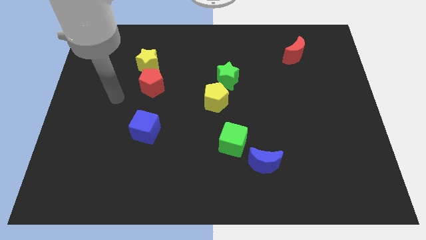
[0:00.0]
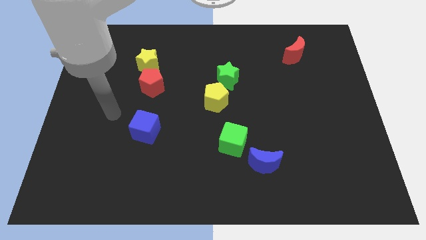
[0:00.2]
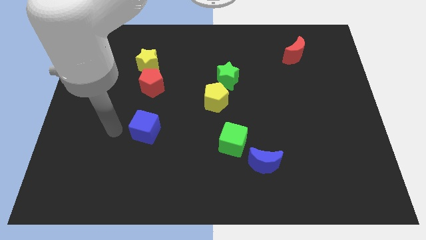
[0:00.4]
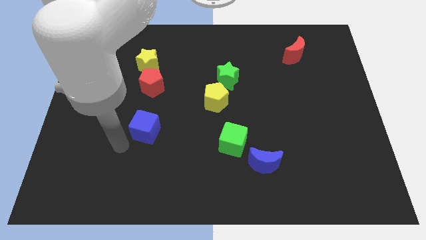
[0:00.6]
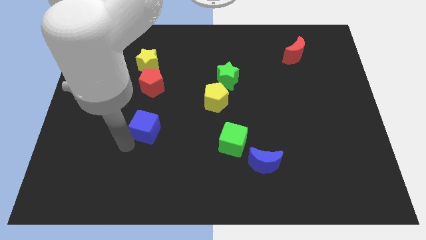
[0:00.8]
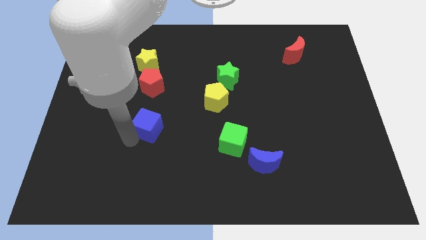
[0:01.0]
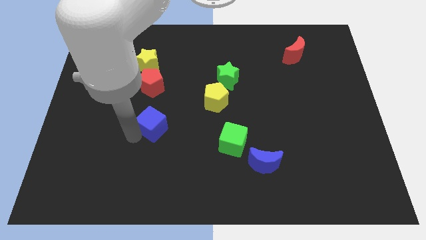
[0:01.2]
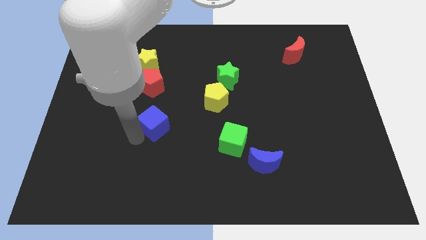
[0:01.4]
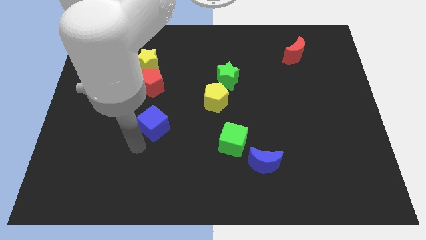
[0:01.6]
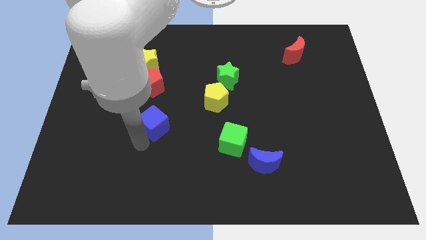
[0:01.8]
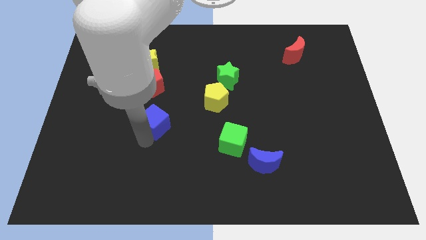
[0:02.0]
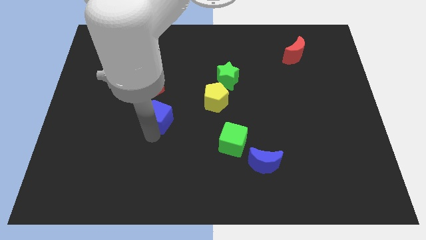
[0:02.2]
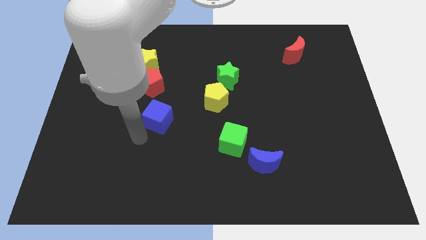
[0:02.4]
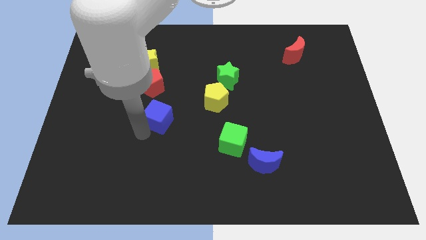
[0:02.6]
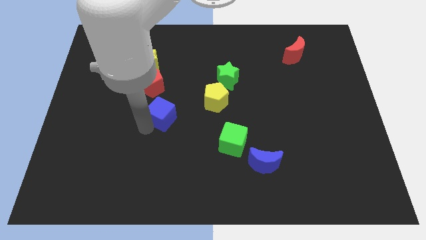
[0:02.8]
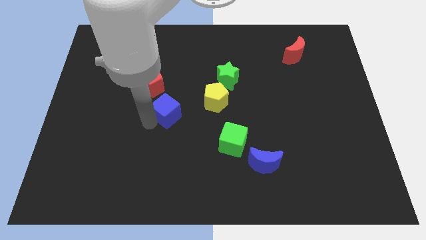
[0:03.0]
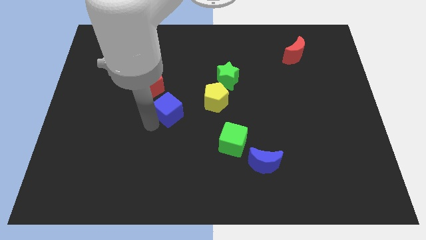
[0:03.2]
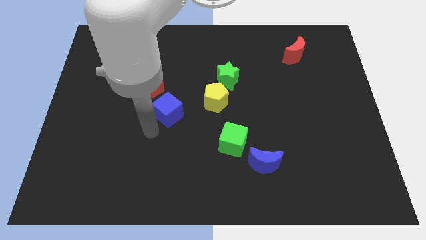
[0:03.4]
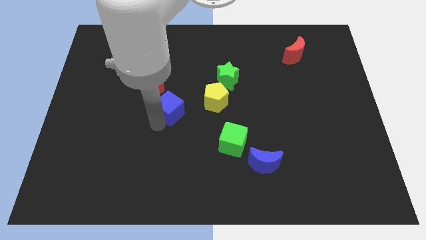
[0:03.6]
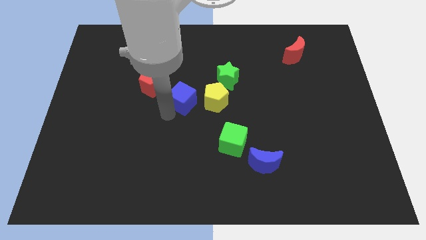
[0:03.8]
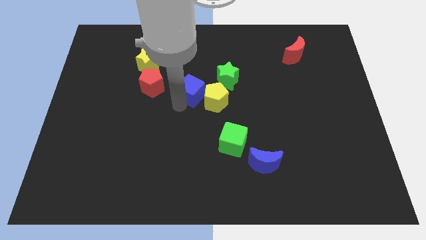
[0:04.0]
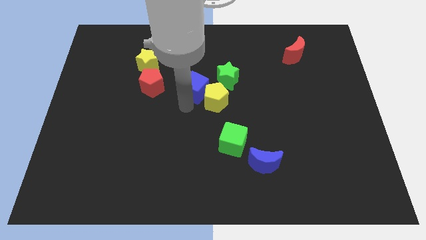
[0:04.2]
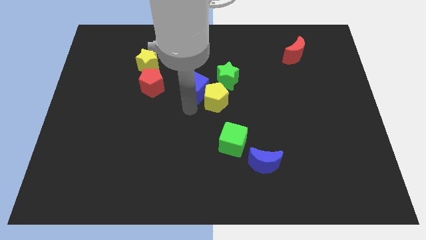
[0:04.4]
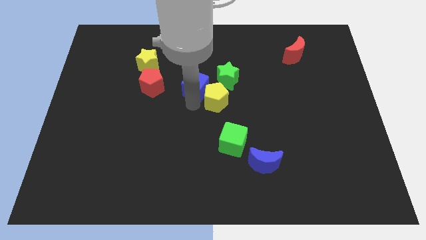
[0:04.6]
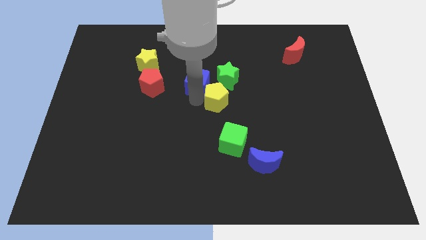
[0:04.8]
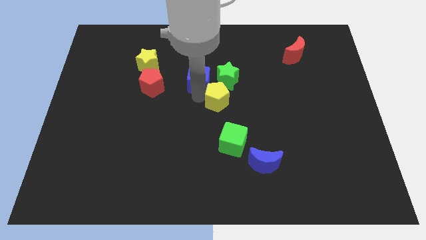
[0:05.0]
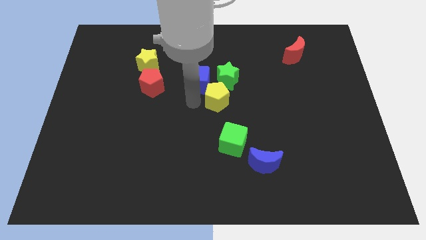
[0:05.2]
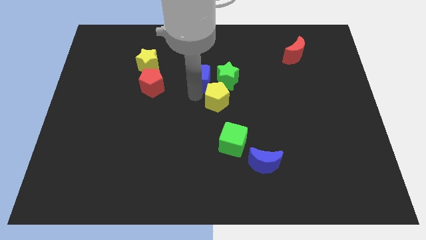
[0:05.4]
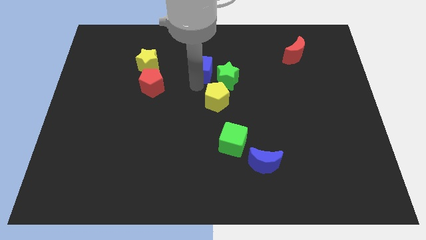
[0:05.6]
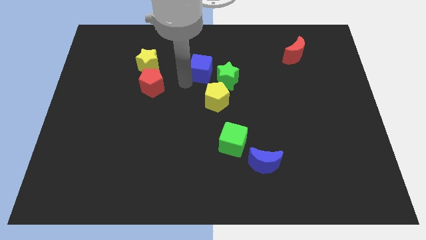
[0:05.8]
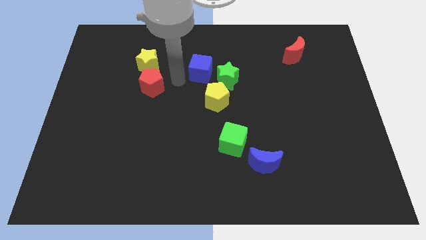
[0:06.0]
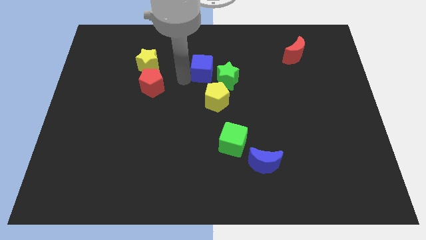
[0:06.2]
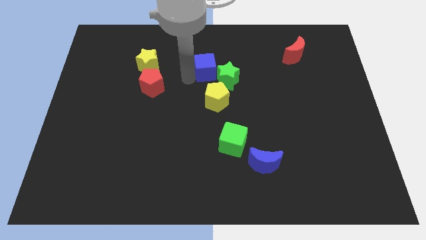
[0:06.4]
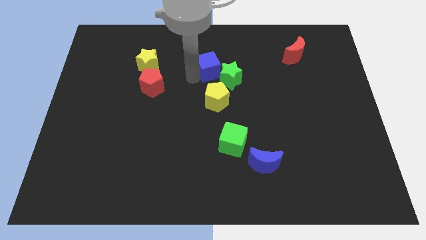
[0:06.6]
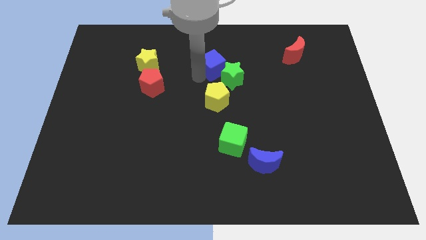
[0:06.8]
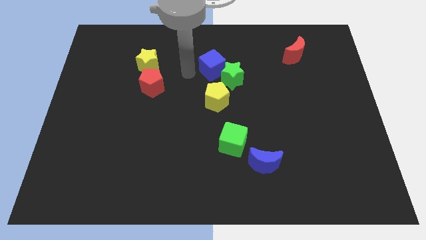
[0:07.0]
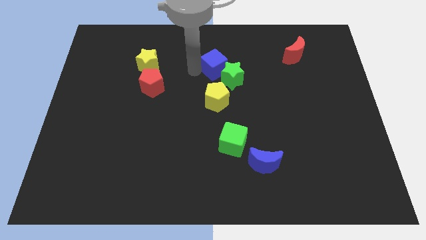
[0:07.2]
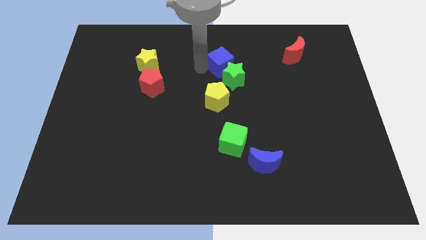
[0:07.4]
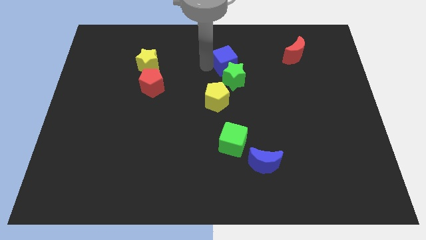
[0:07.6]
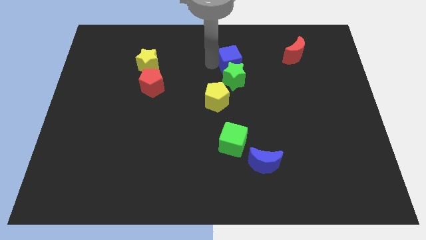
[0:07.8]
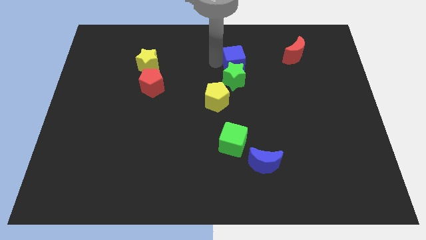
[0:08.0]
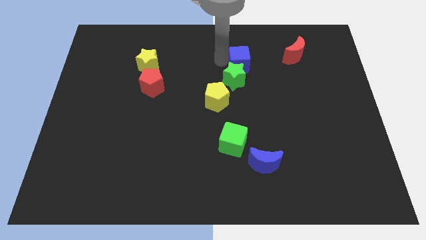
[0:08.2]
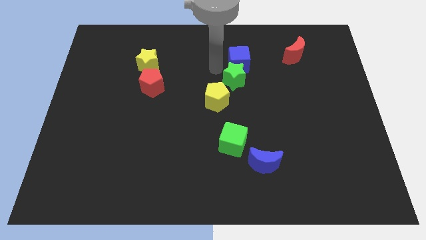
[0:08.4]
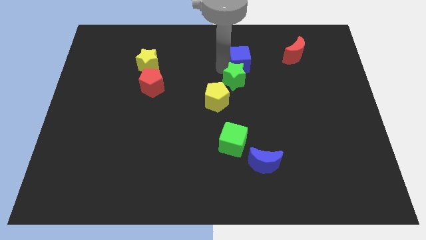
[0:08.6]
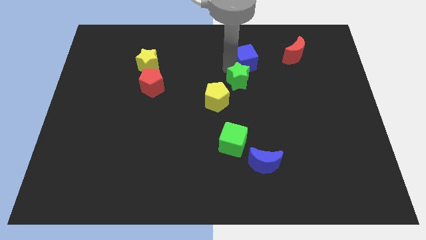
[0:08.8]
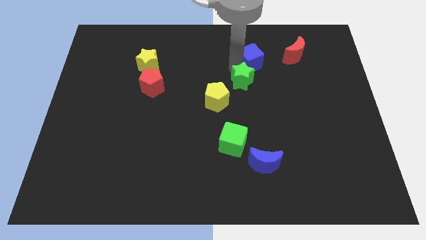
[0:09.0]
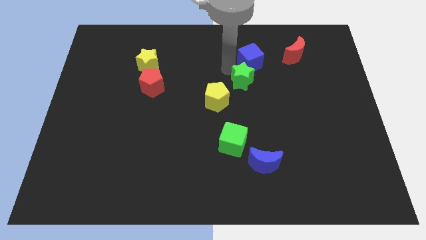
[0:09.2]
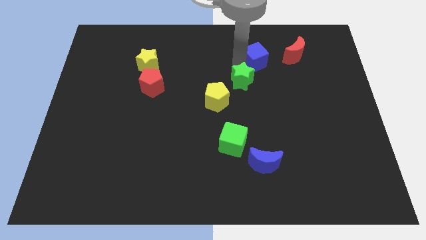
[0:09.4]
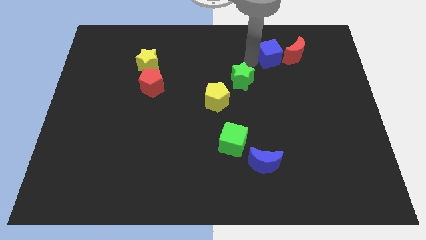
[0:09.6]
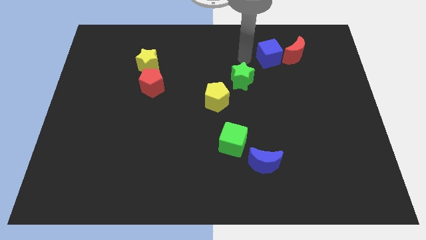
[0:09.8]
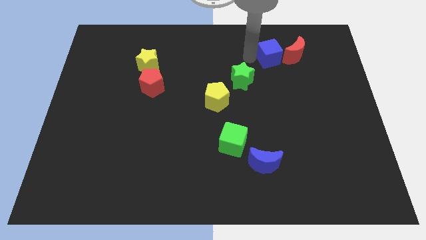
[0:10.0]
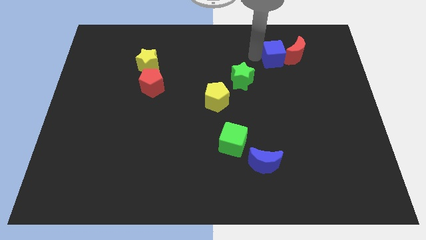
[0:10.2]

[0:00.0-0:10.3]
push the blue cube to the red moon
